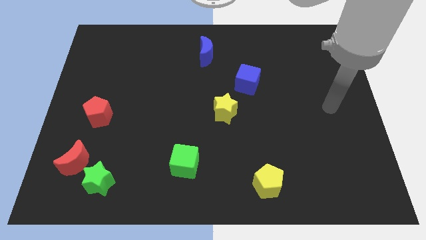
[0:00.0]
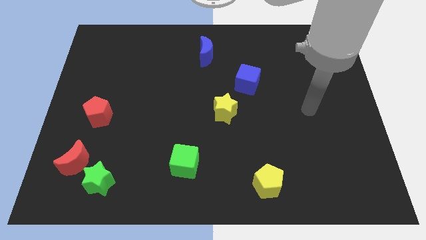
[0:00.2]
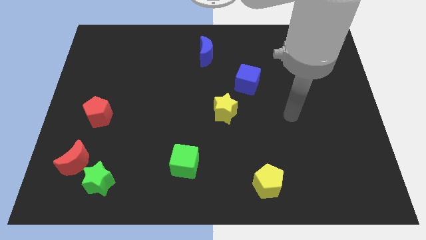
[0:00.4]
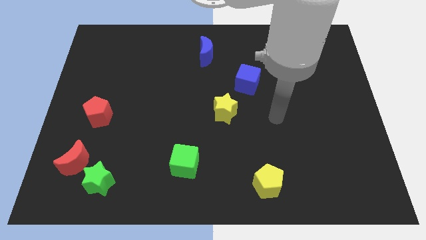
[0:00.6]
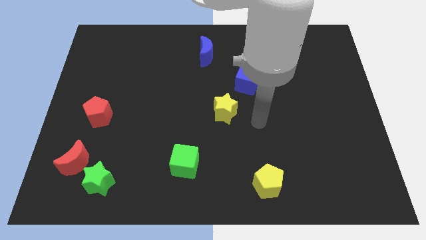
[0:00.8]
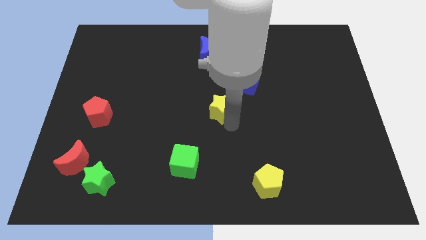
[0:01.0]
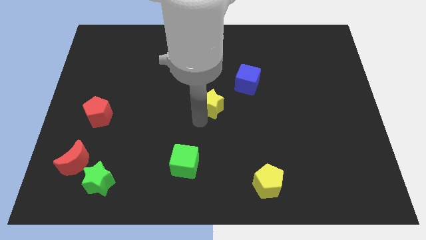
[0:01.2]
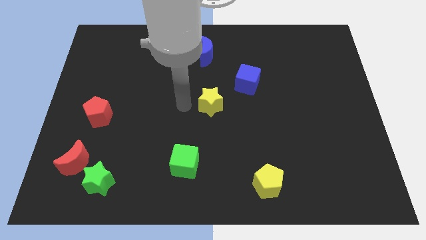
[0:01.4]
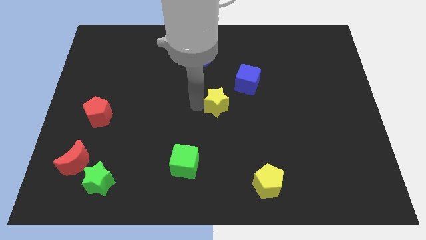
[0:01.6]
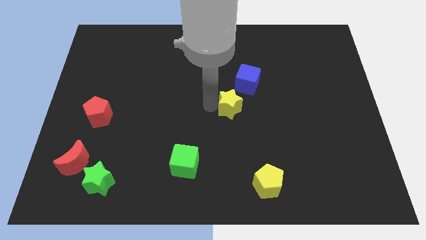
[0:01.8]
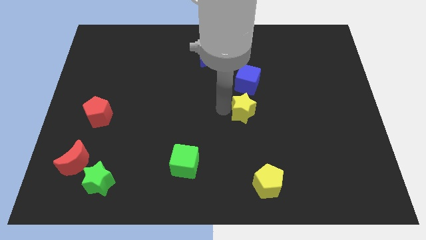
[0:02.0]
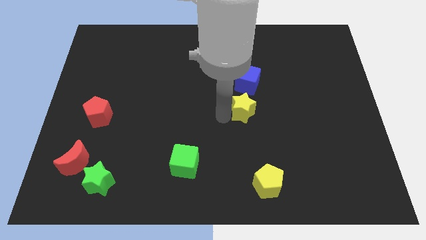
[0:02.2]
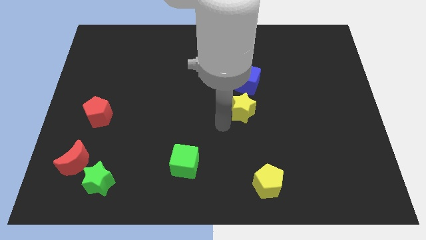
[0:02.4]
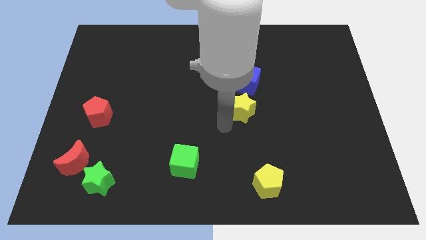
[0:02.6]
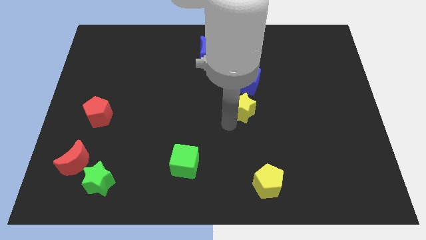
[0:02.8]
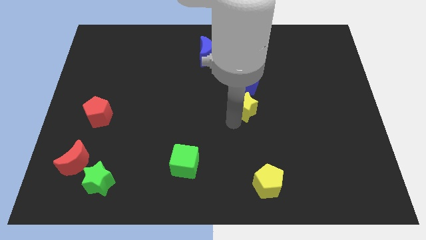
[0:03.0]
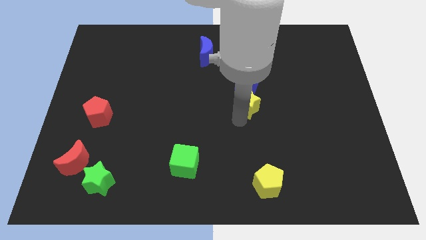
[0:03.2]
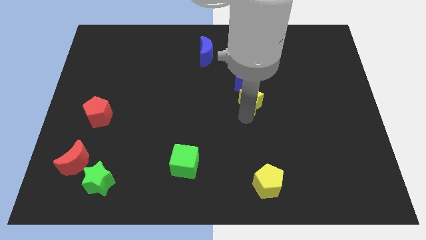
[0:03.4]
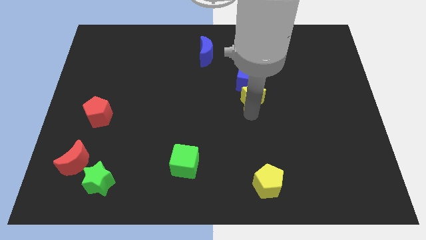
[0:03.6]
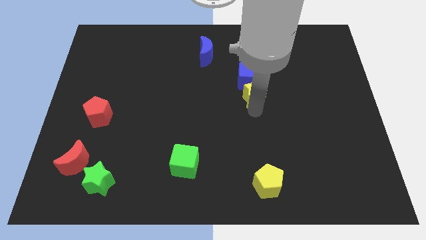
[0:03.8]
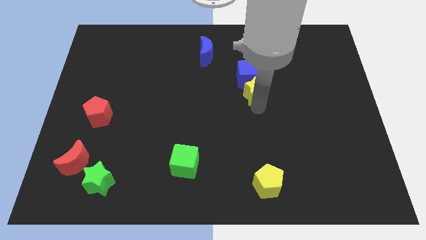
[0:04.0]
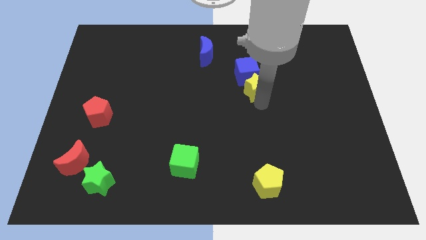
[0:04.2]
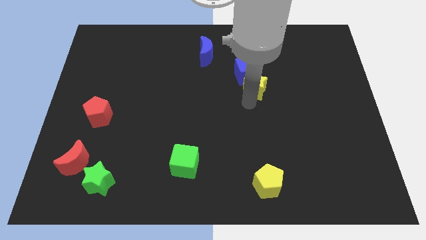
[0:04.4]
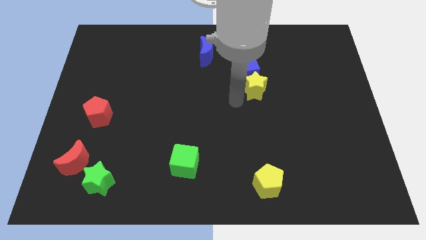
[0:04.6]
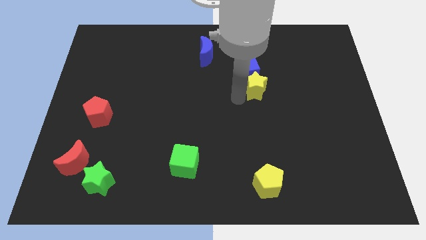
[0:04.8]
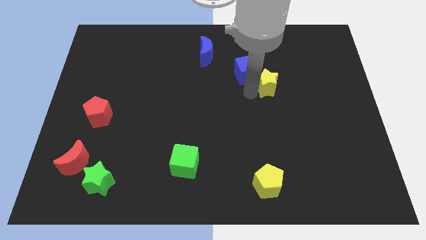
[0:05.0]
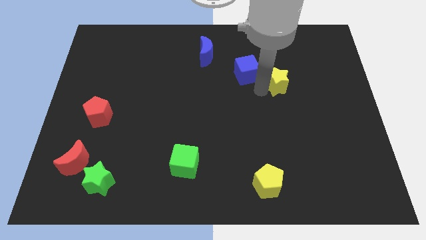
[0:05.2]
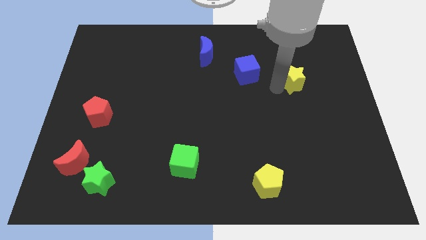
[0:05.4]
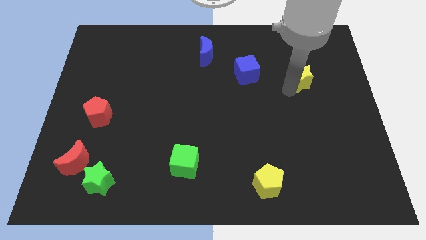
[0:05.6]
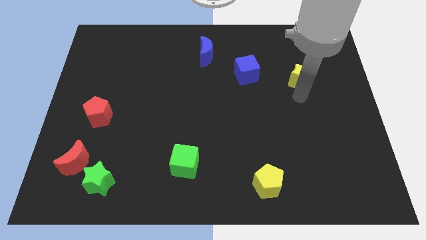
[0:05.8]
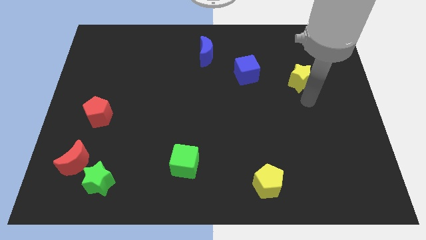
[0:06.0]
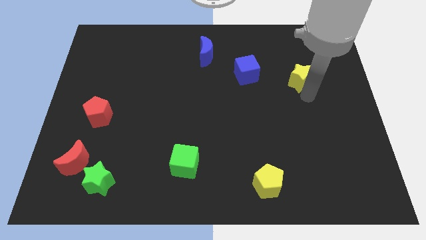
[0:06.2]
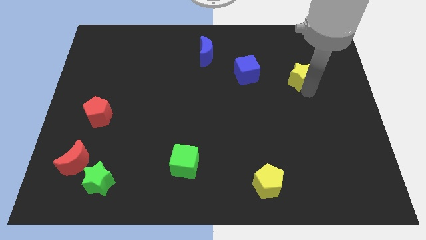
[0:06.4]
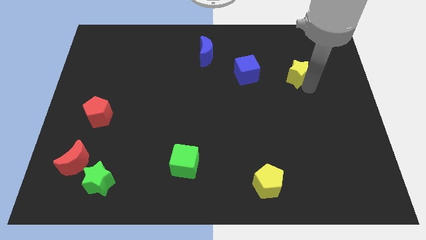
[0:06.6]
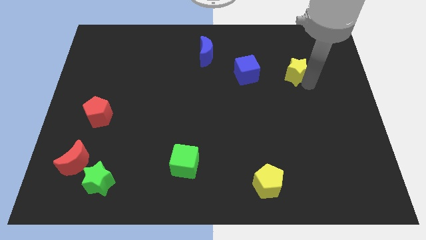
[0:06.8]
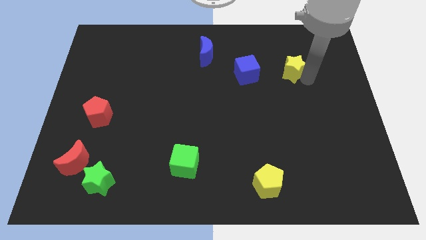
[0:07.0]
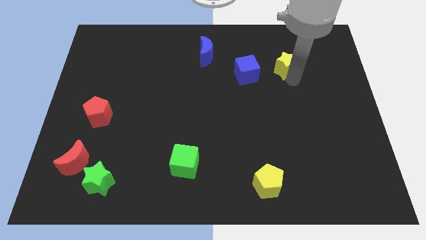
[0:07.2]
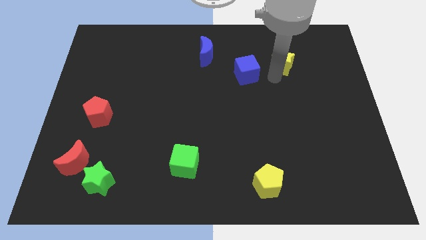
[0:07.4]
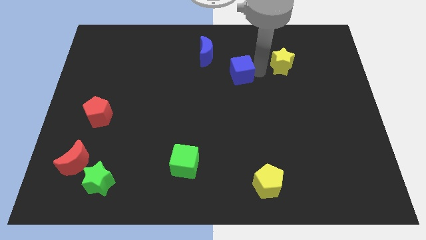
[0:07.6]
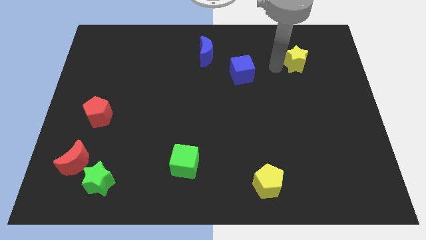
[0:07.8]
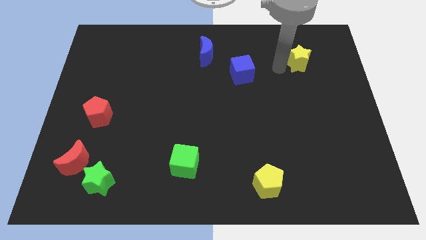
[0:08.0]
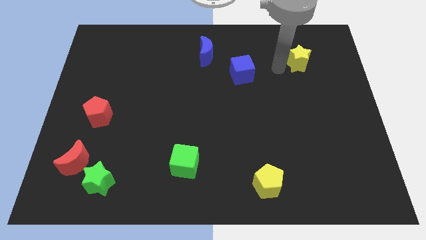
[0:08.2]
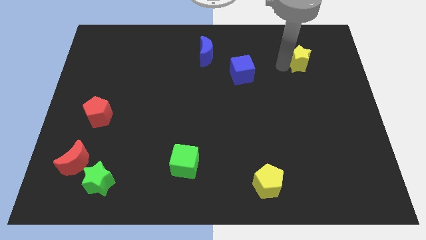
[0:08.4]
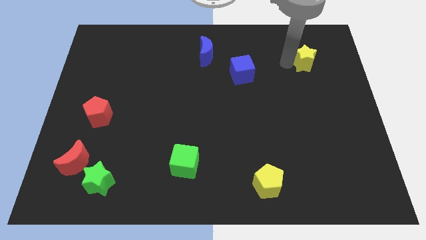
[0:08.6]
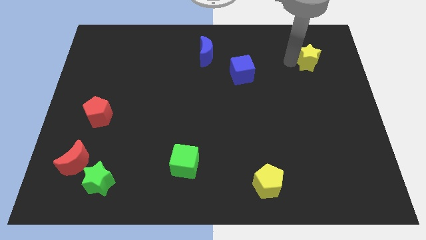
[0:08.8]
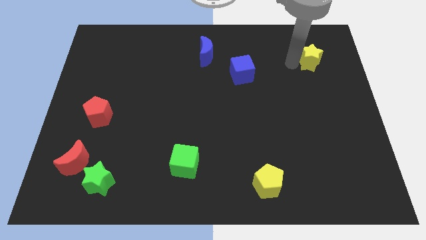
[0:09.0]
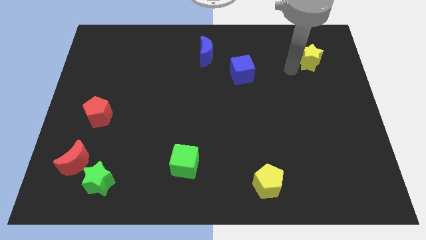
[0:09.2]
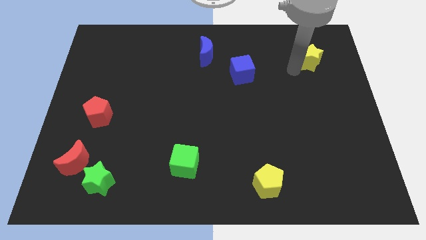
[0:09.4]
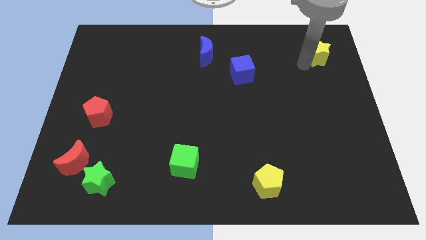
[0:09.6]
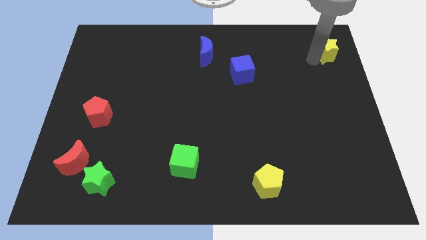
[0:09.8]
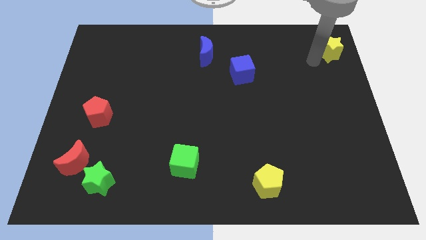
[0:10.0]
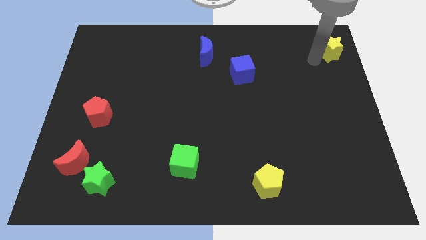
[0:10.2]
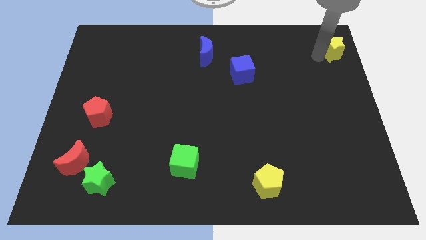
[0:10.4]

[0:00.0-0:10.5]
push the yellow star to the top right corner

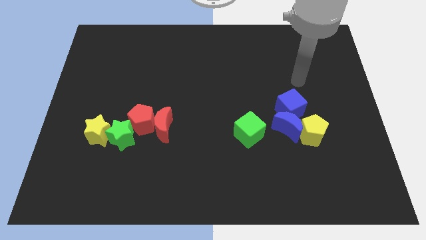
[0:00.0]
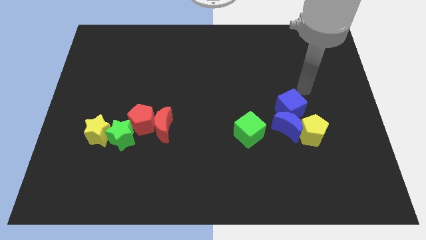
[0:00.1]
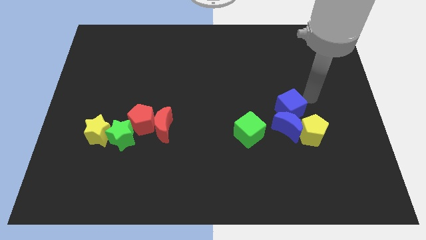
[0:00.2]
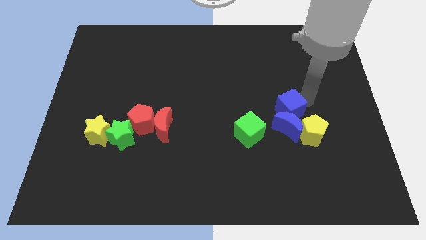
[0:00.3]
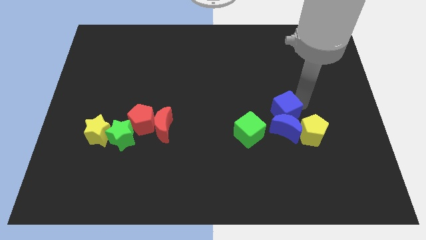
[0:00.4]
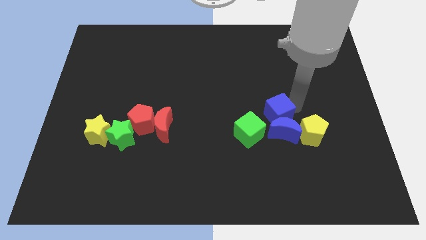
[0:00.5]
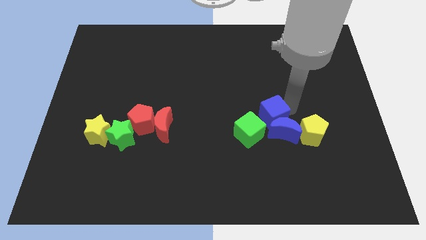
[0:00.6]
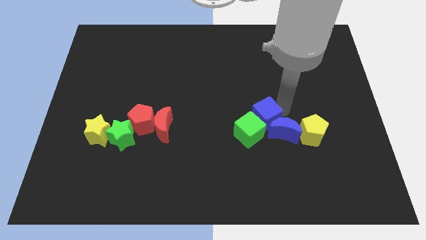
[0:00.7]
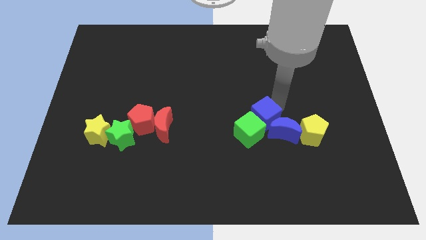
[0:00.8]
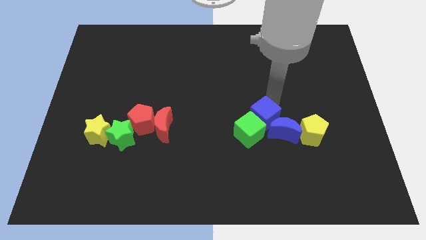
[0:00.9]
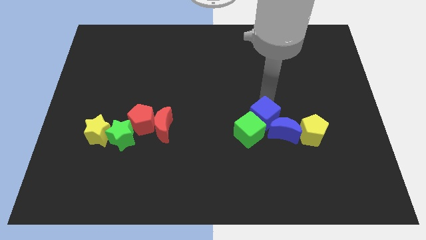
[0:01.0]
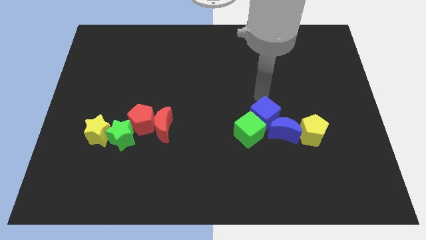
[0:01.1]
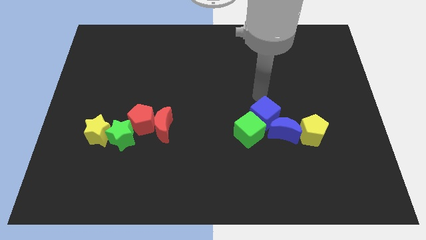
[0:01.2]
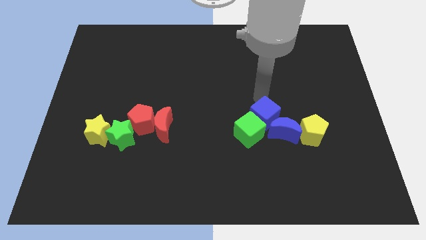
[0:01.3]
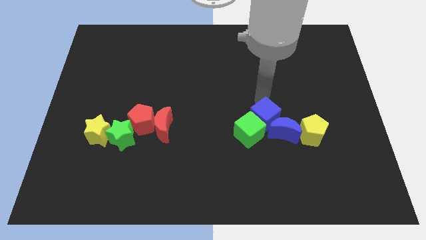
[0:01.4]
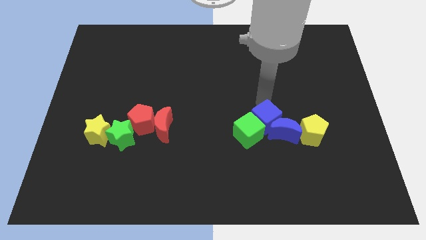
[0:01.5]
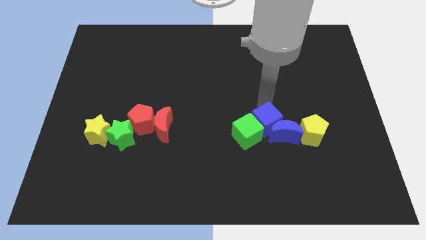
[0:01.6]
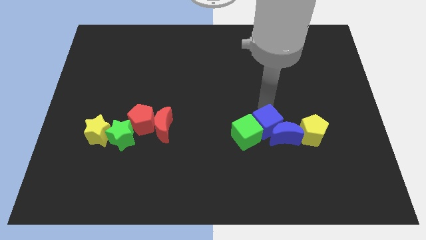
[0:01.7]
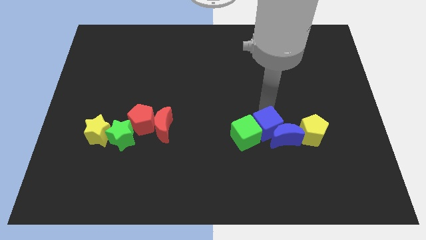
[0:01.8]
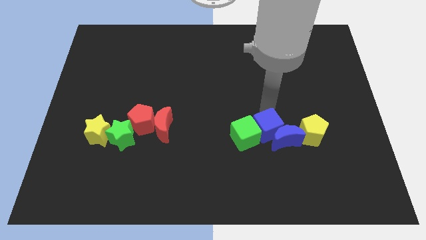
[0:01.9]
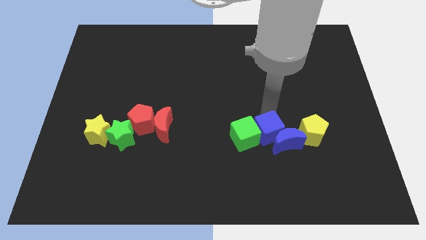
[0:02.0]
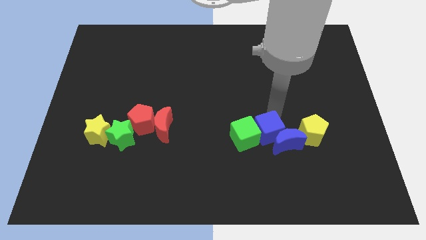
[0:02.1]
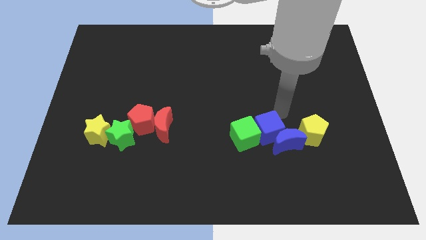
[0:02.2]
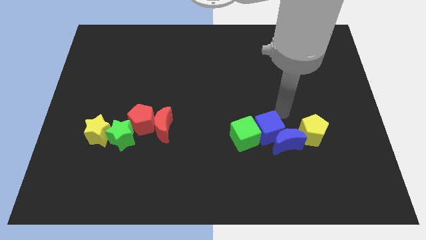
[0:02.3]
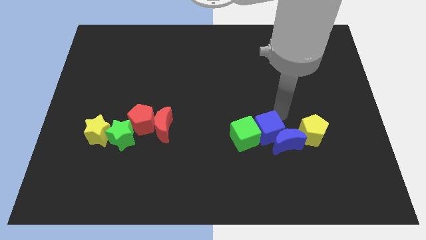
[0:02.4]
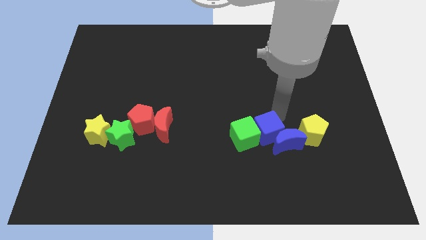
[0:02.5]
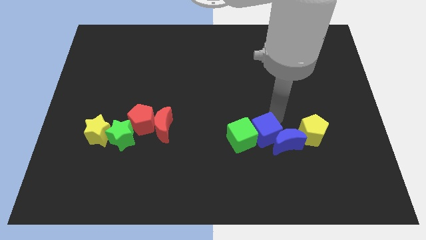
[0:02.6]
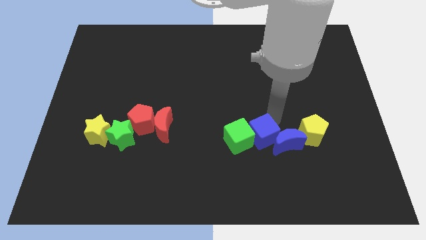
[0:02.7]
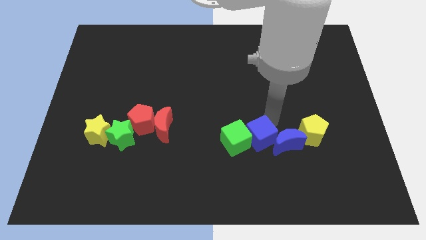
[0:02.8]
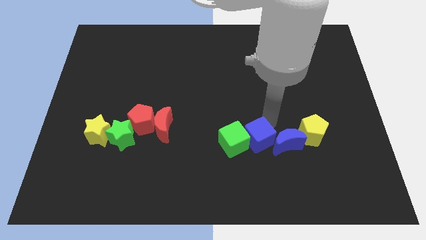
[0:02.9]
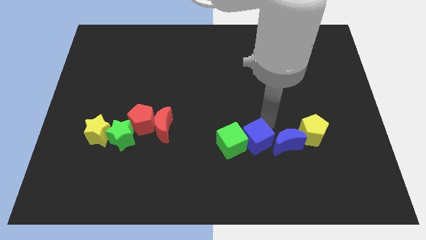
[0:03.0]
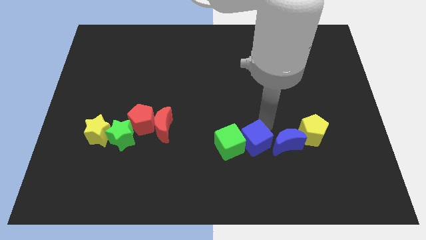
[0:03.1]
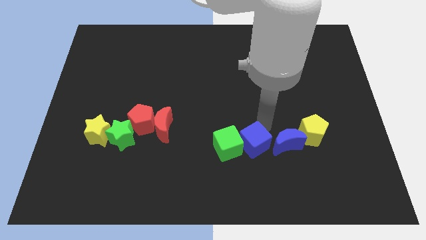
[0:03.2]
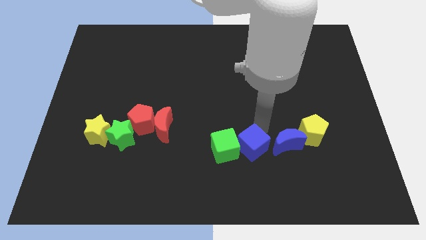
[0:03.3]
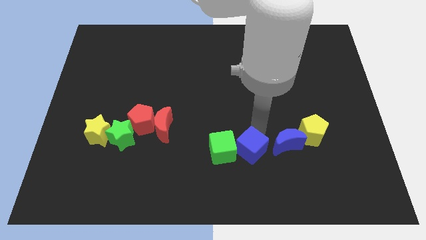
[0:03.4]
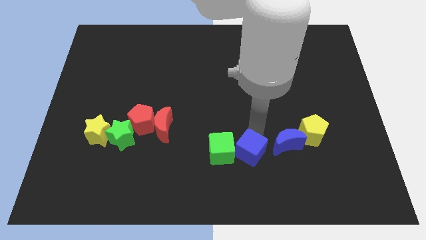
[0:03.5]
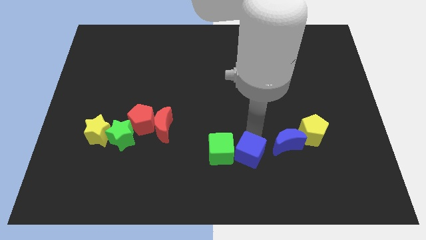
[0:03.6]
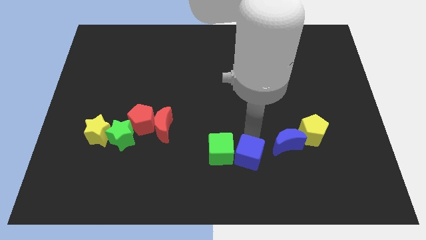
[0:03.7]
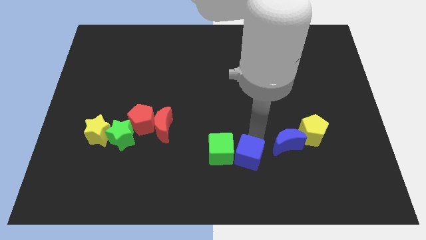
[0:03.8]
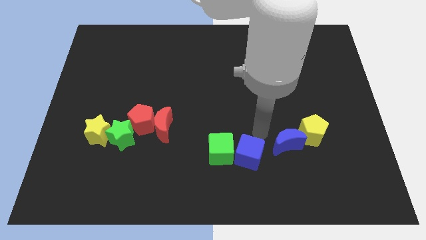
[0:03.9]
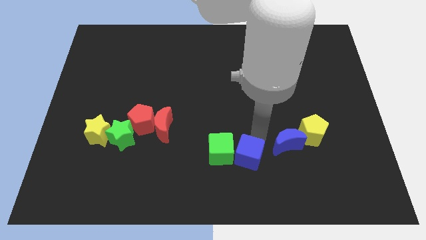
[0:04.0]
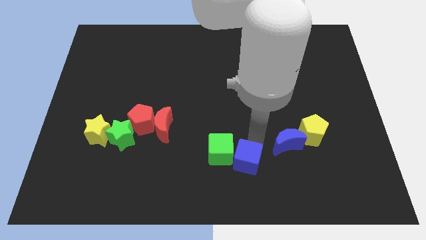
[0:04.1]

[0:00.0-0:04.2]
put the blue cube to the bottom side
